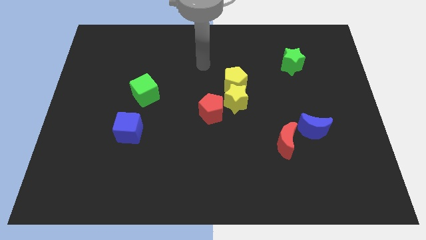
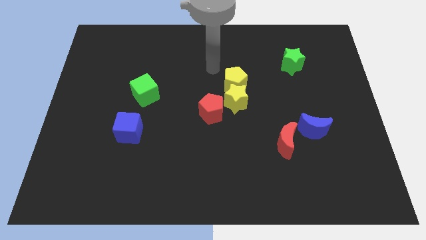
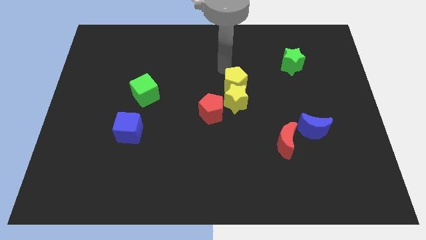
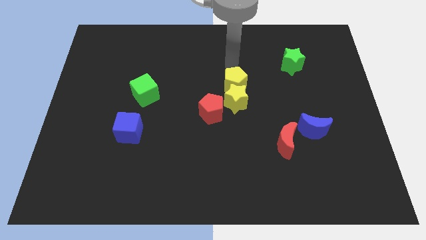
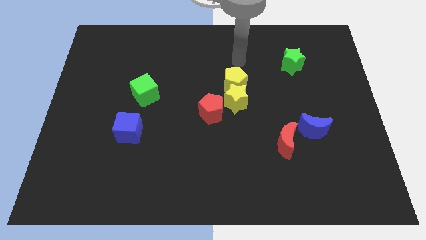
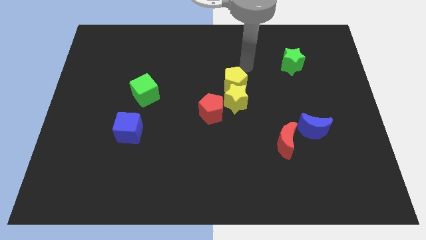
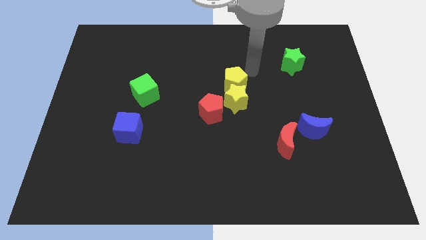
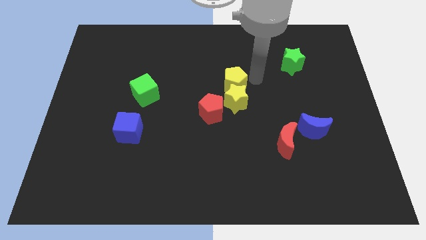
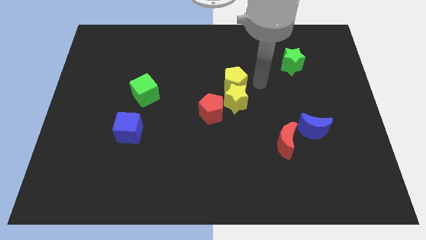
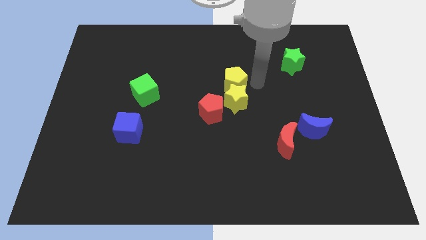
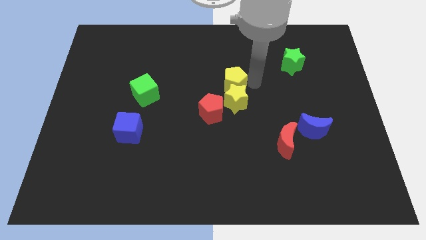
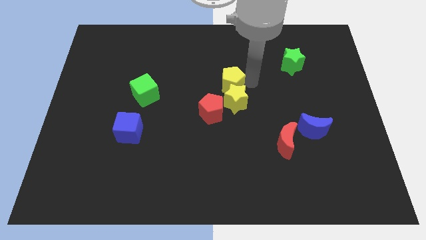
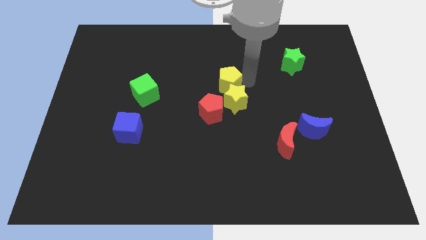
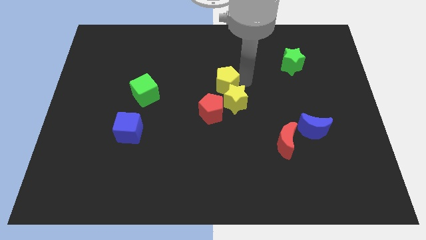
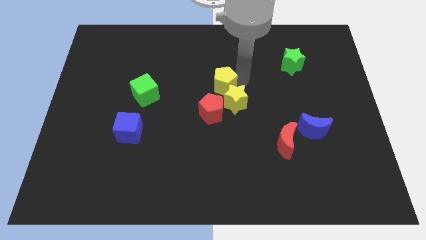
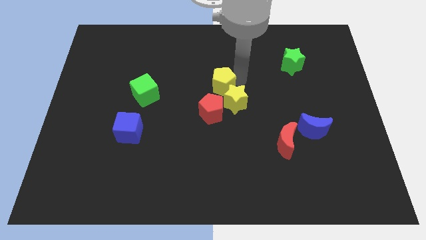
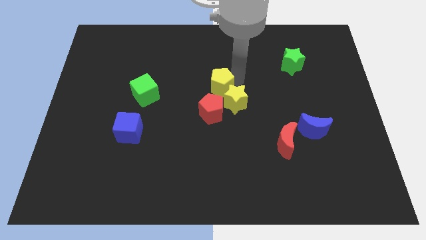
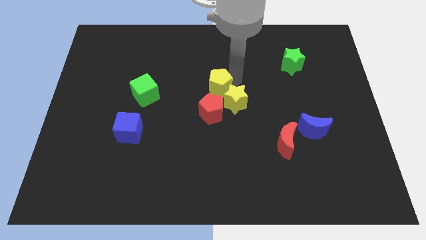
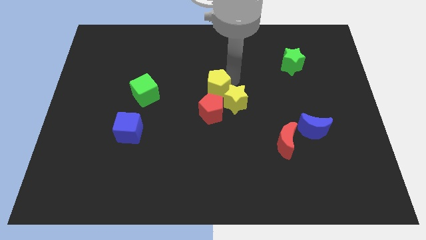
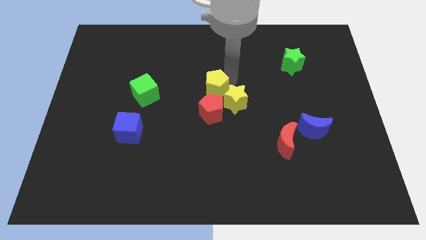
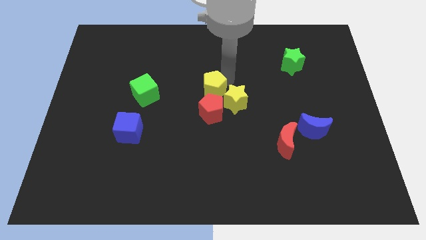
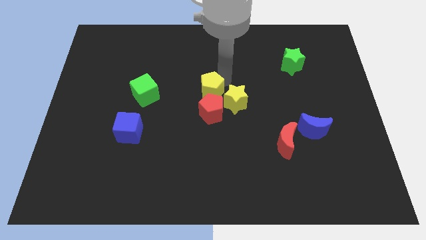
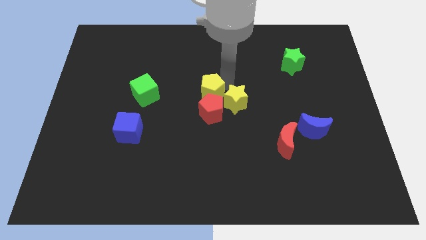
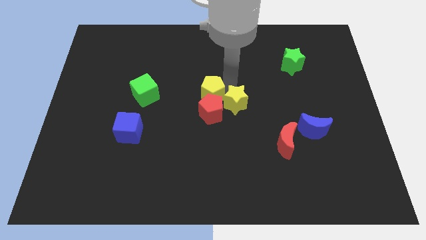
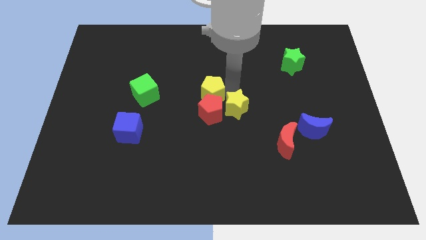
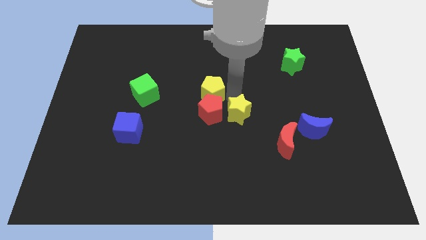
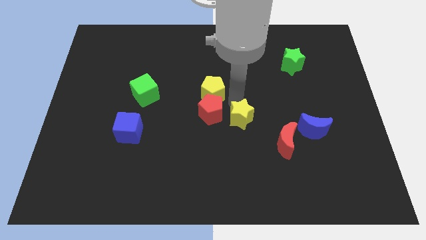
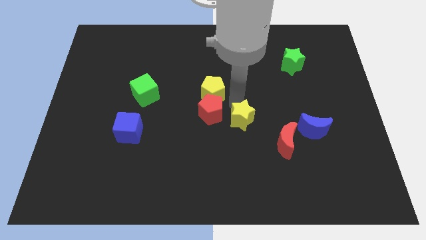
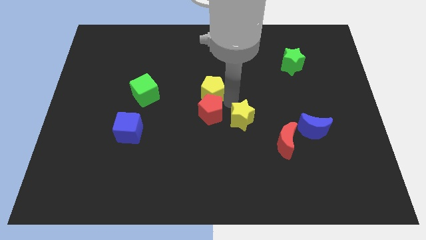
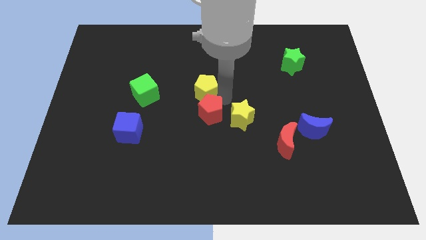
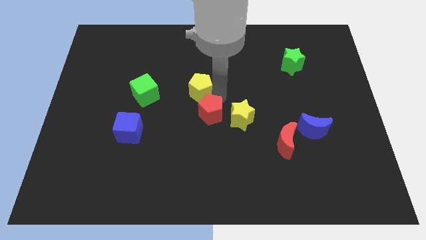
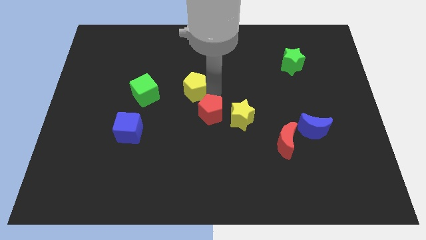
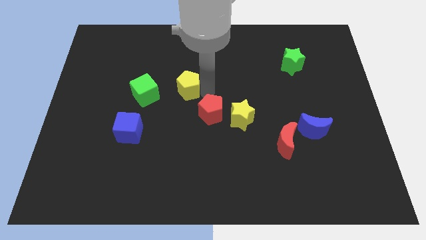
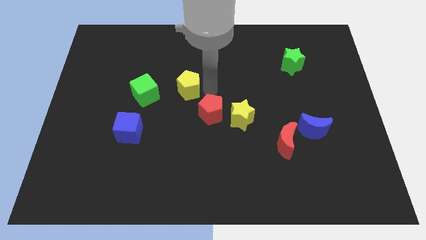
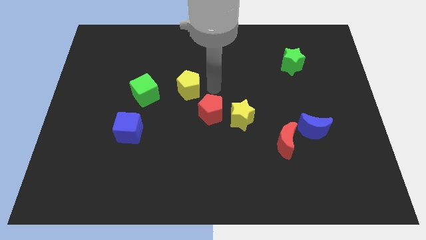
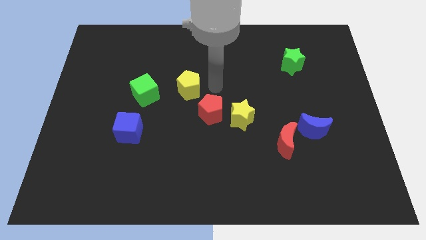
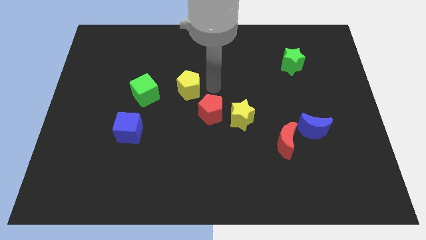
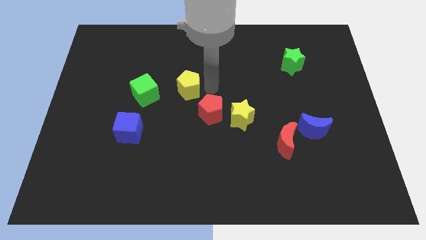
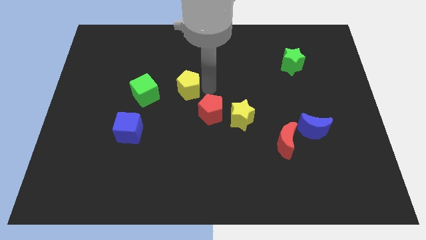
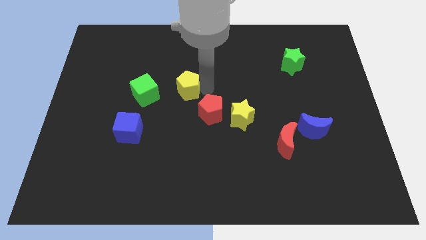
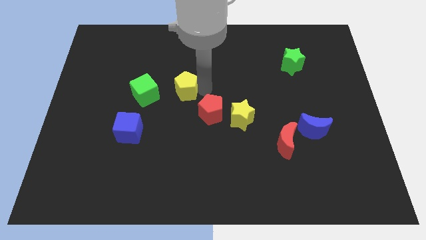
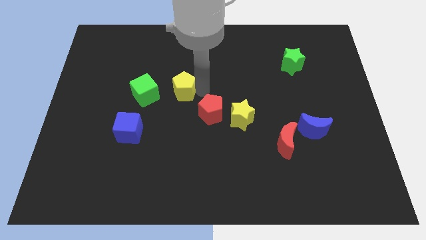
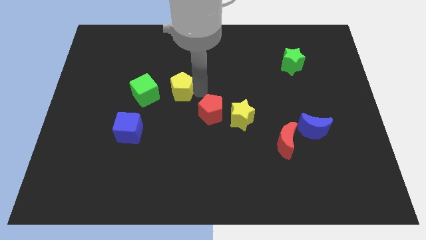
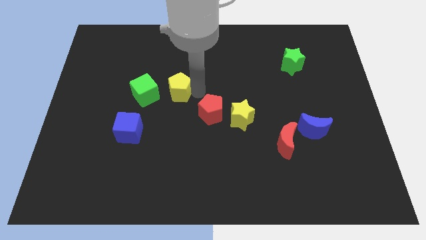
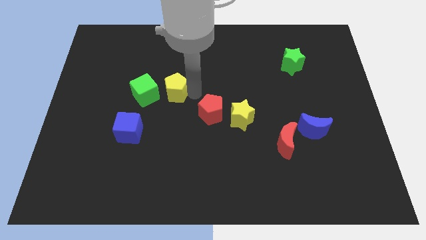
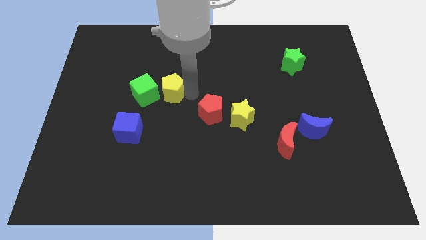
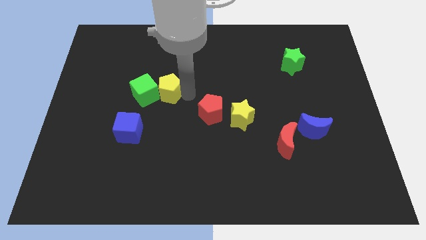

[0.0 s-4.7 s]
move the yellow pentagon towards the green cube

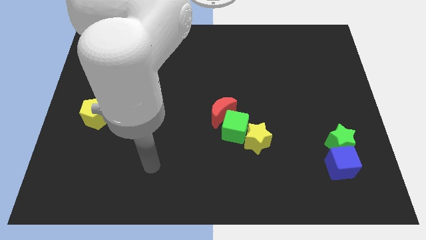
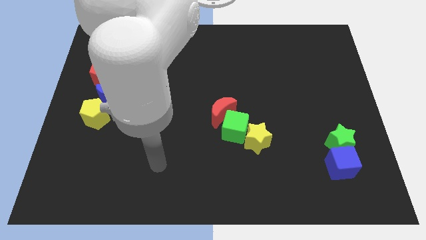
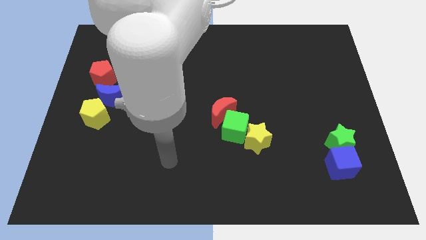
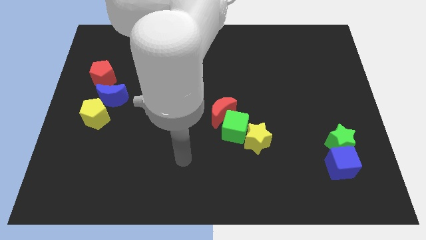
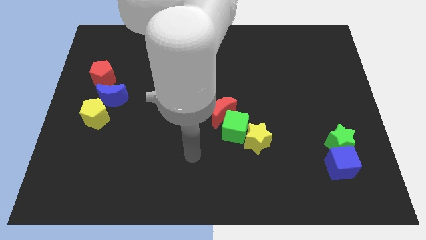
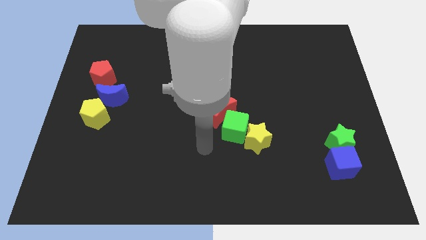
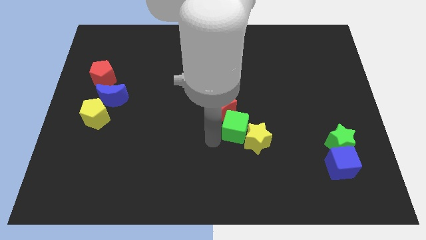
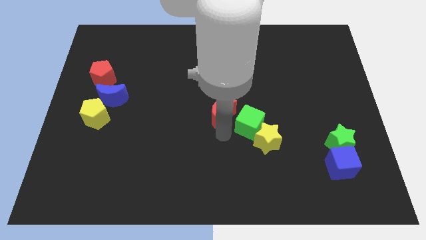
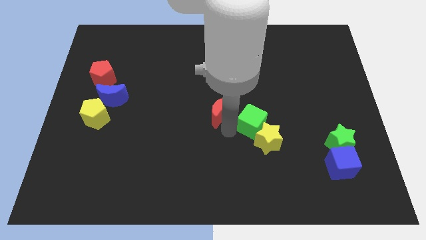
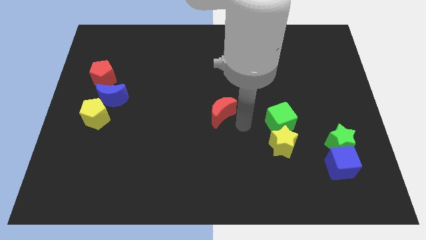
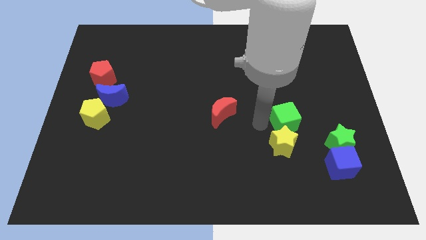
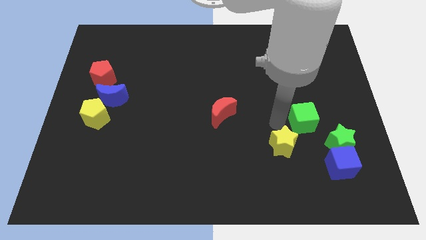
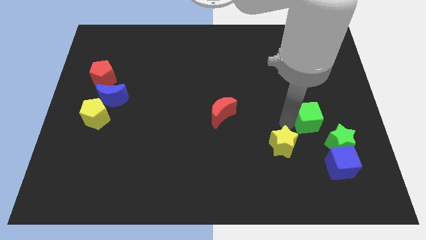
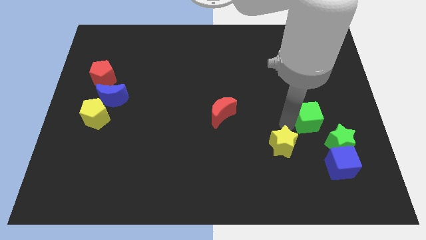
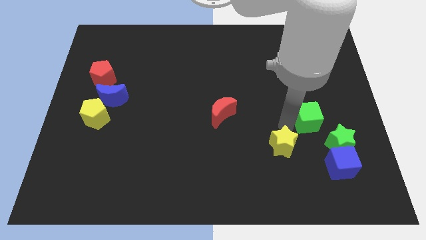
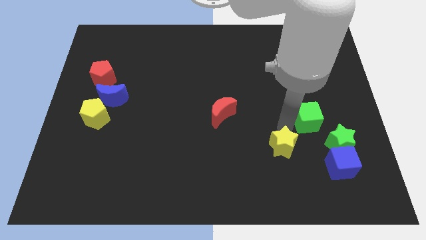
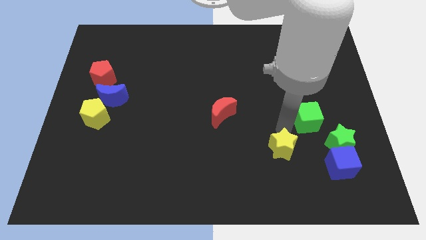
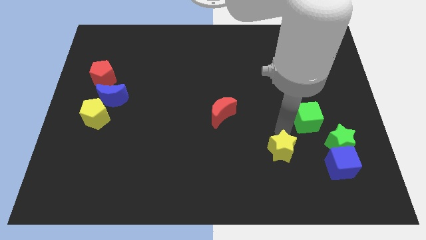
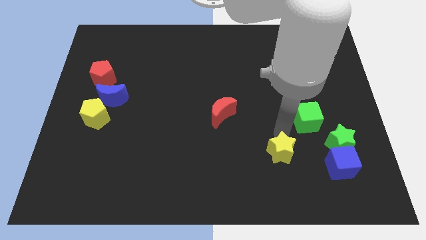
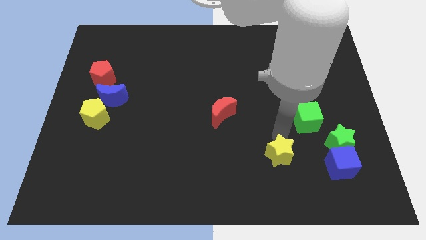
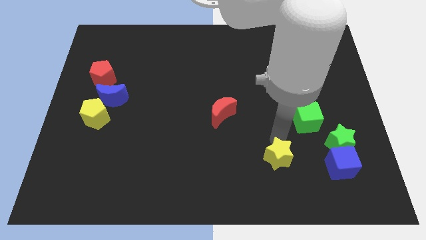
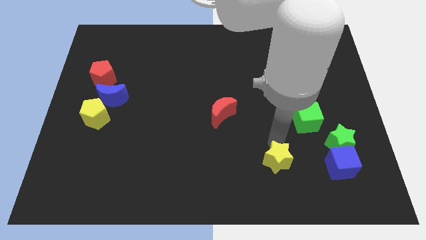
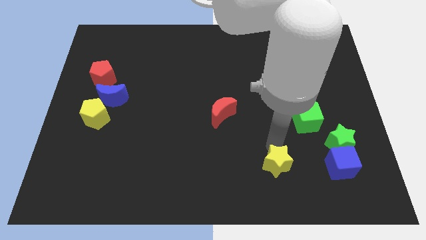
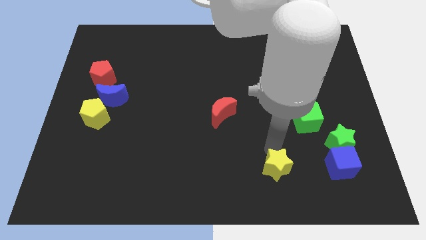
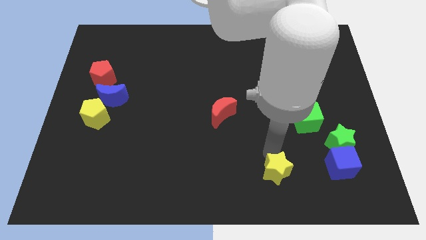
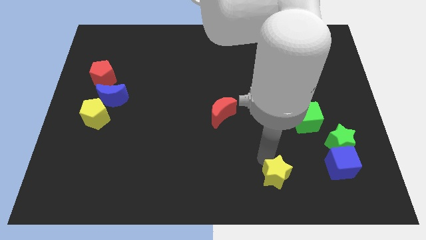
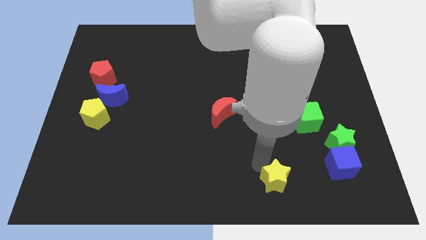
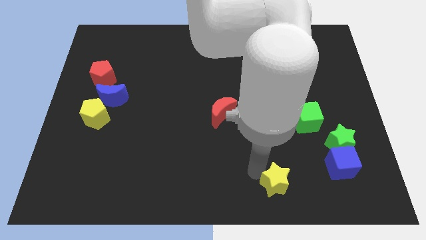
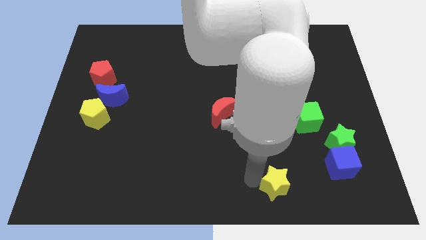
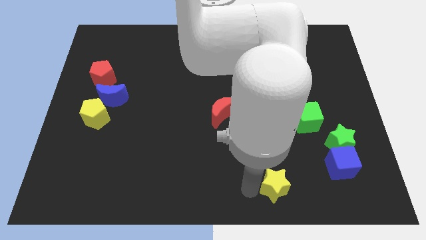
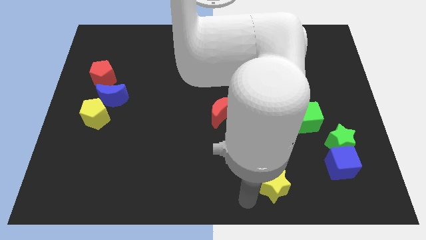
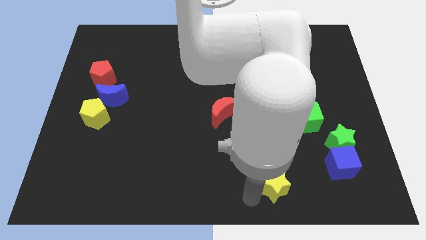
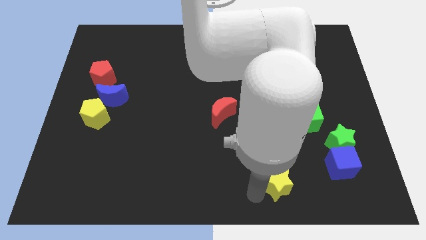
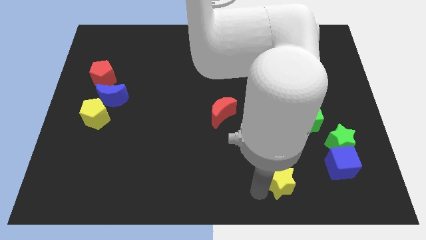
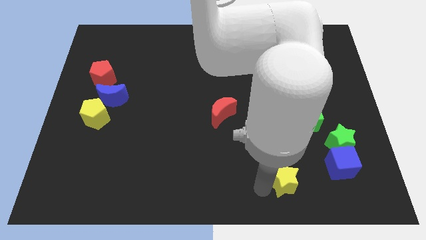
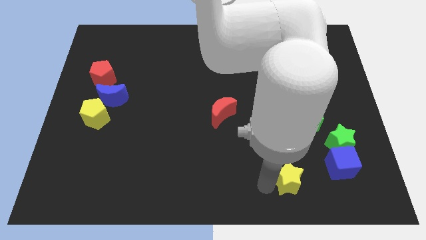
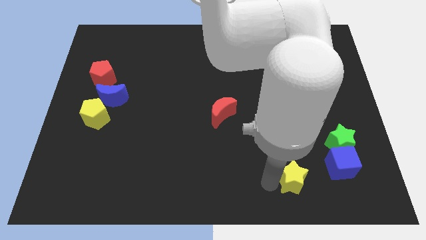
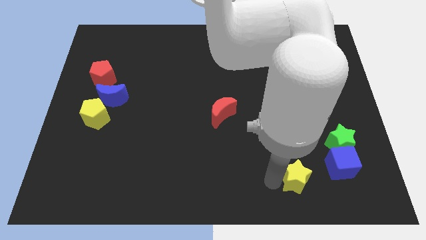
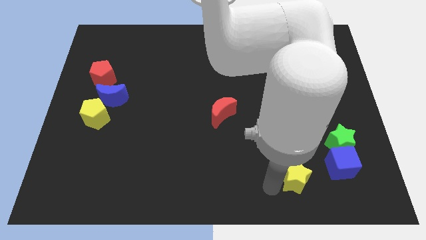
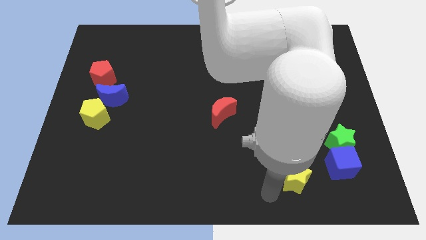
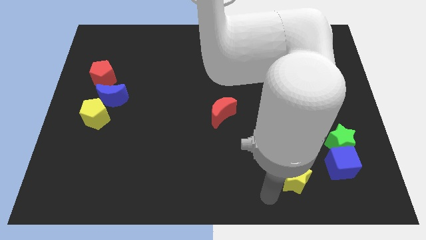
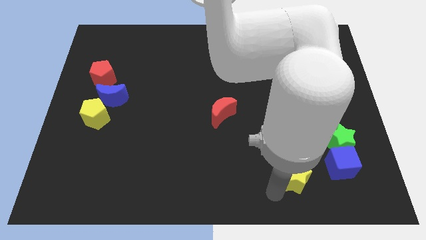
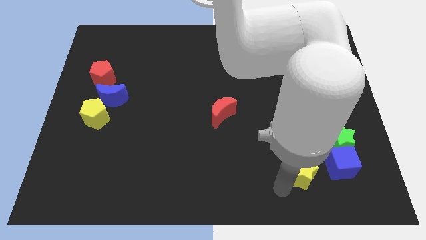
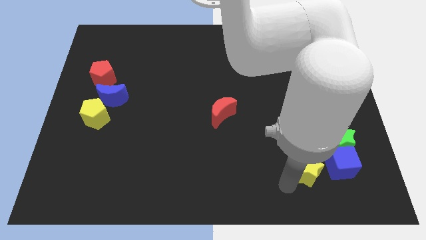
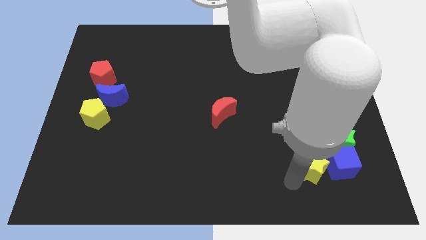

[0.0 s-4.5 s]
push the yellow star to the blue cube
